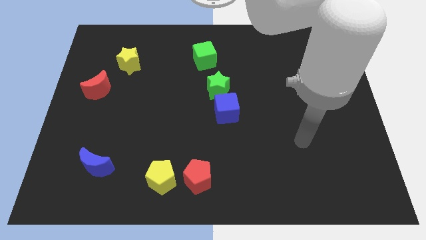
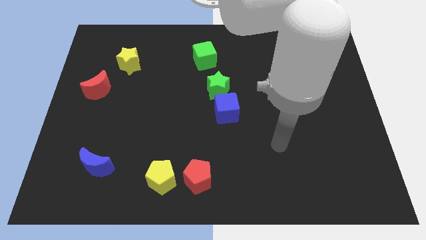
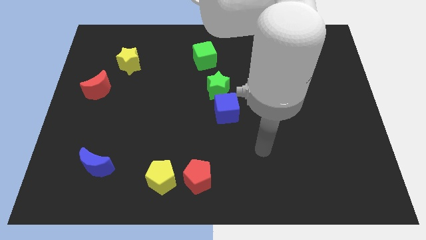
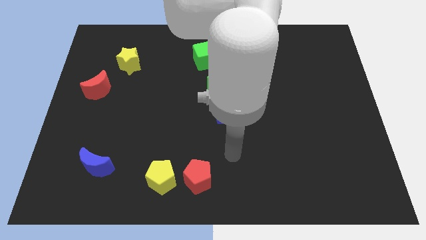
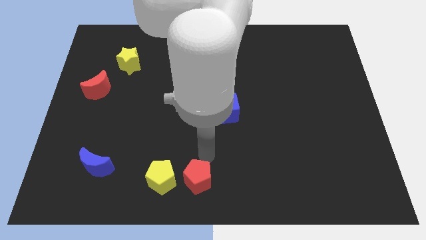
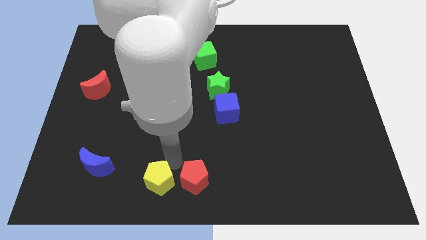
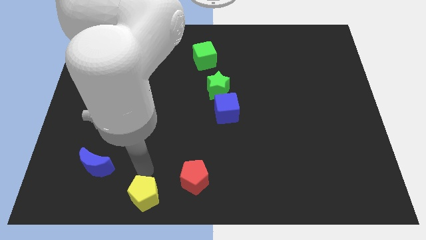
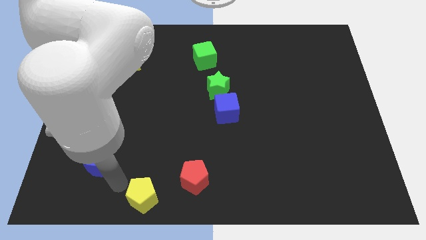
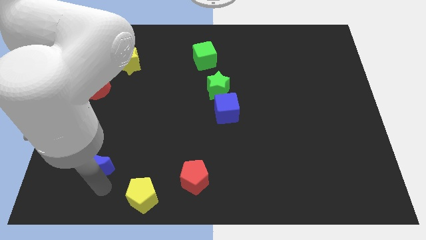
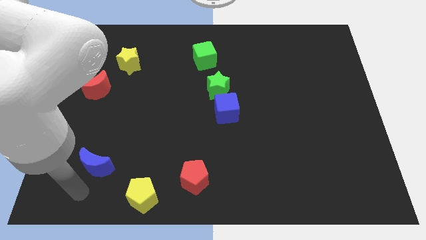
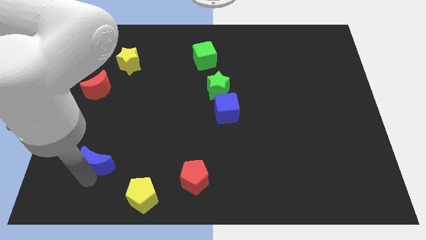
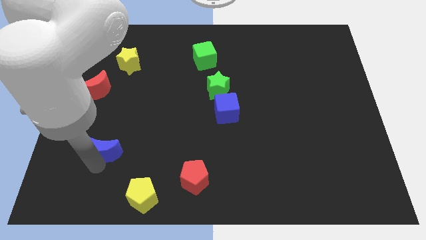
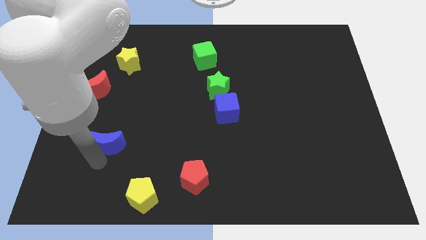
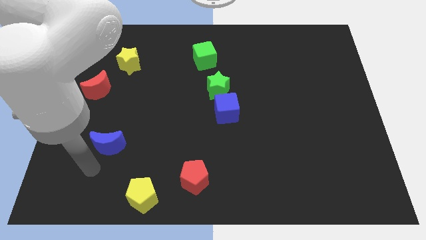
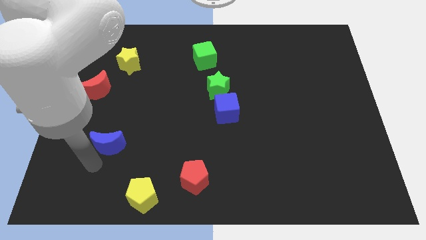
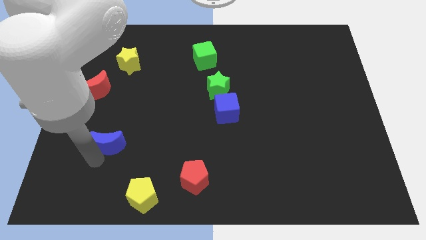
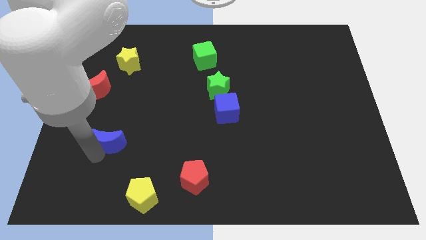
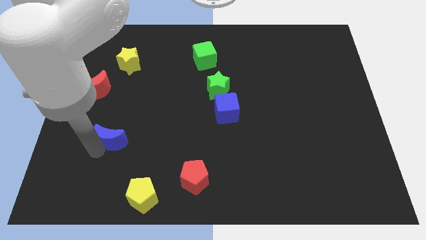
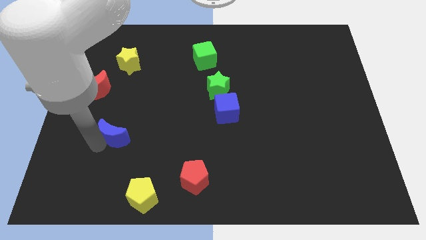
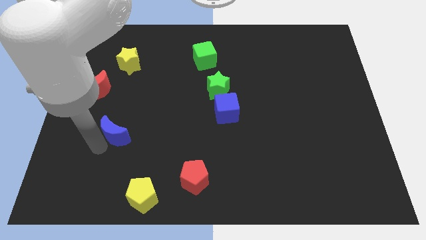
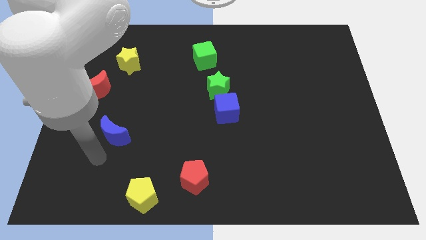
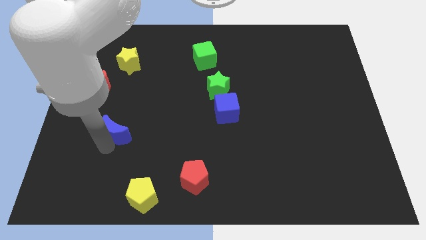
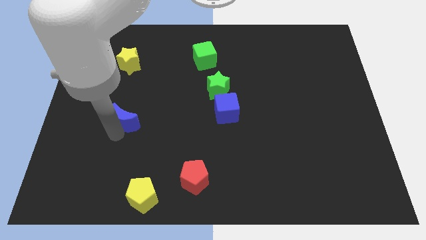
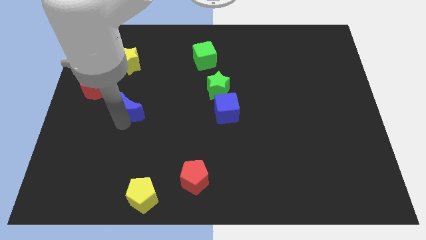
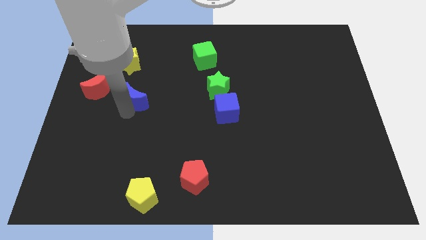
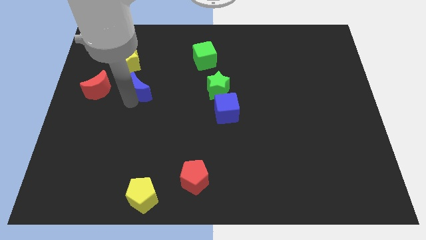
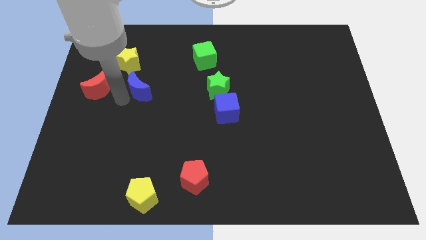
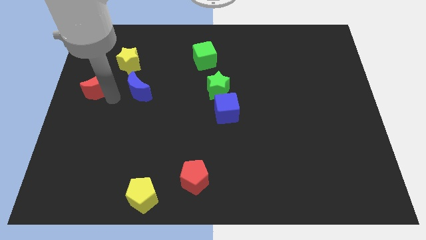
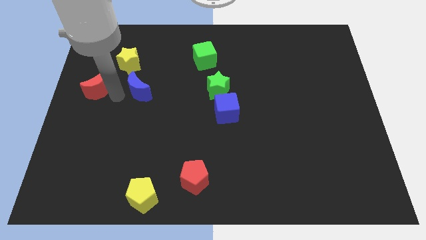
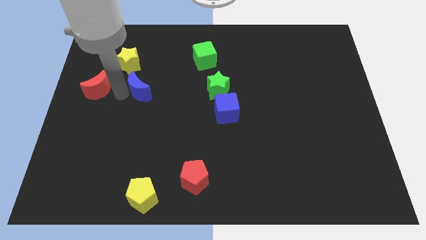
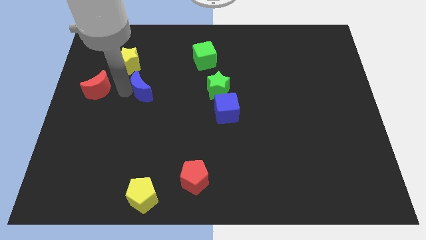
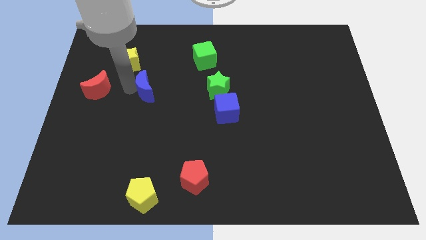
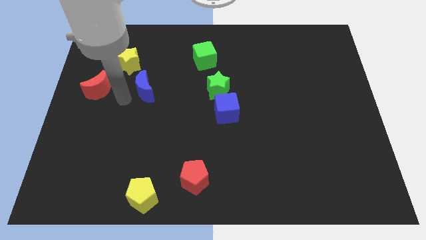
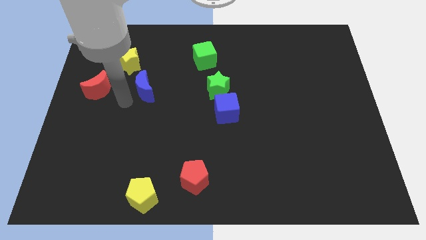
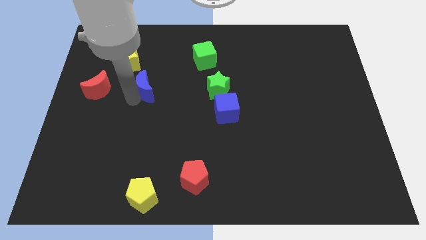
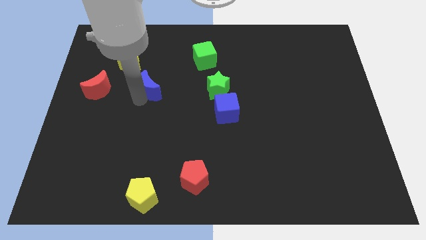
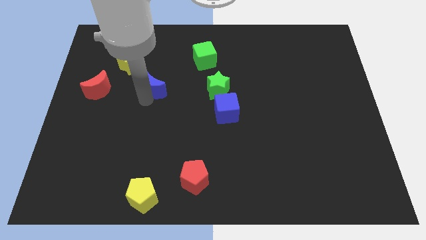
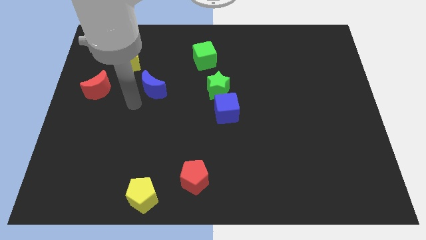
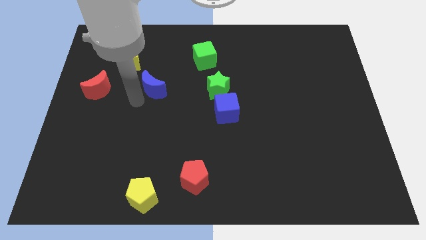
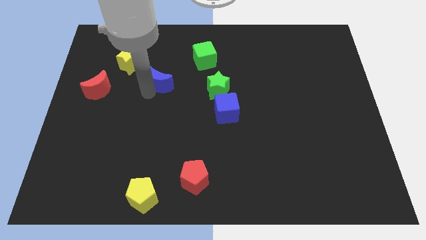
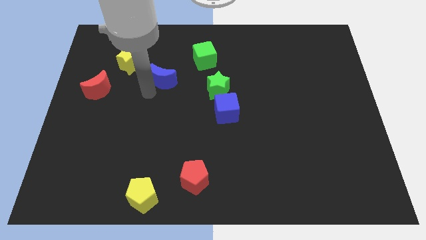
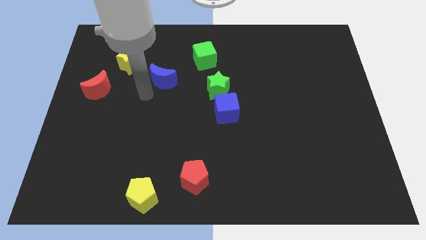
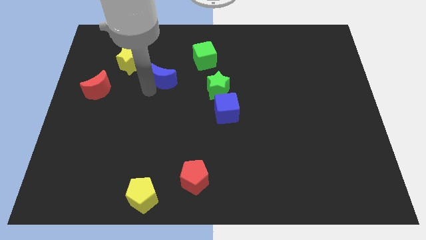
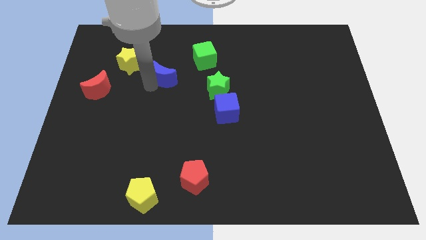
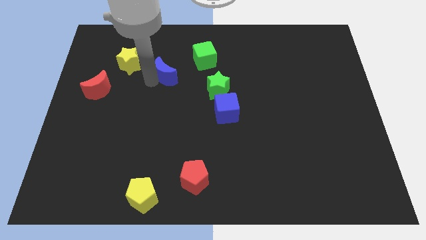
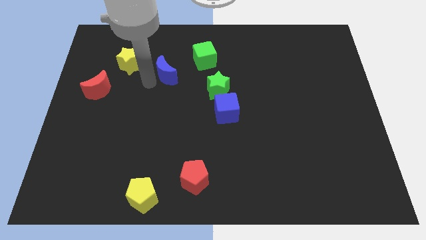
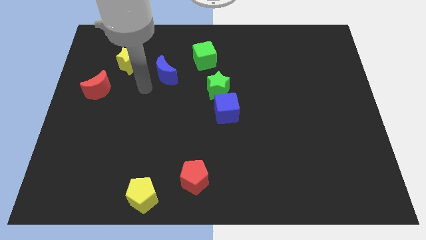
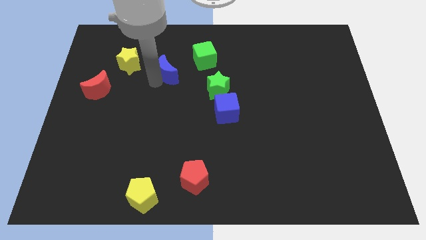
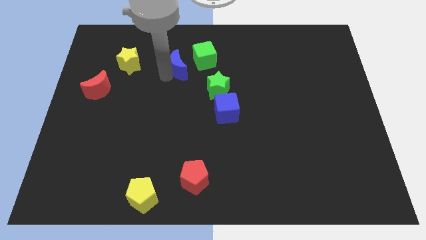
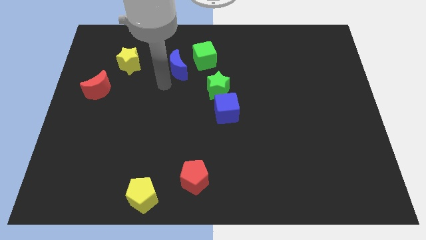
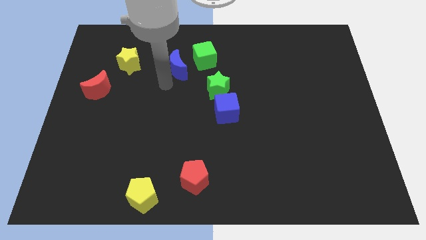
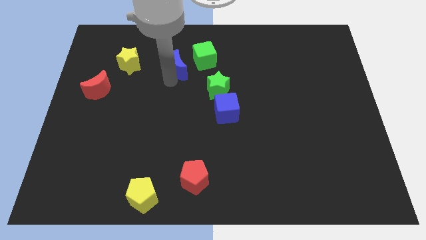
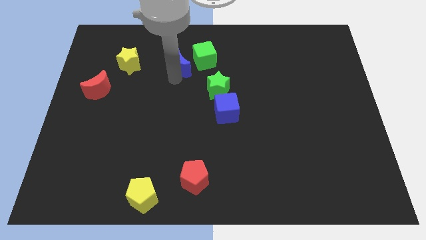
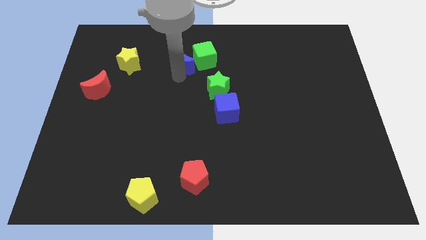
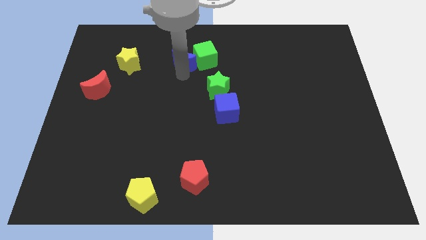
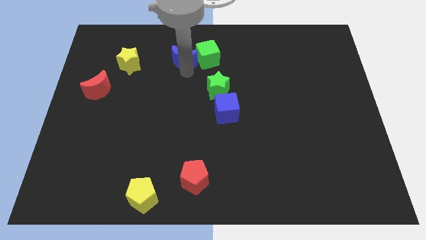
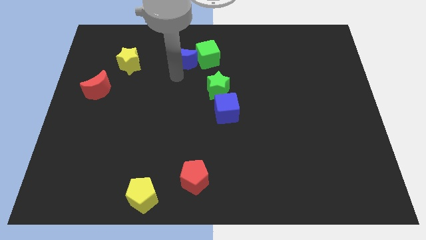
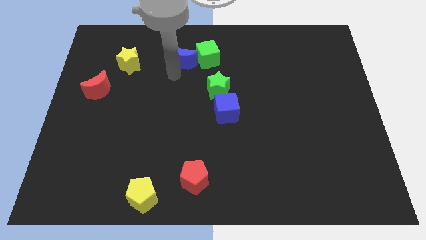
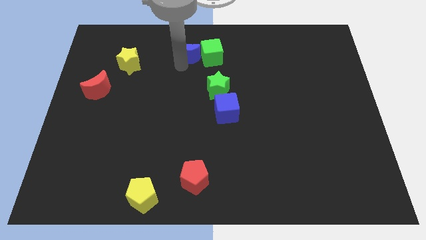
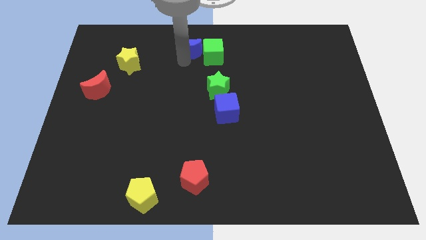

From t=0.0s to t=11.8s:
slide the blue moon to the top side

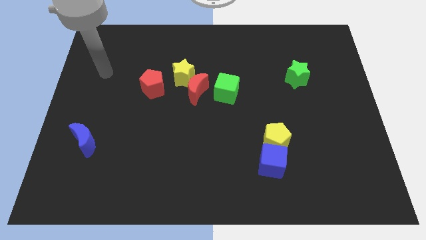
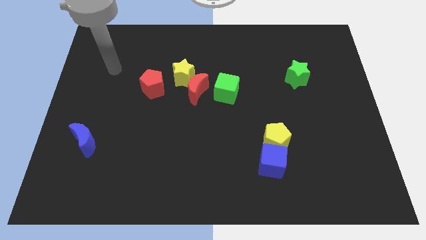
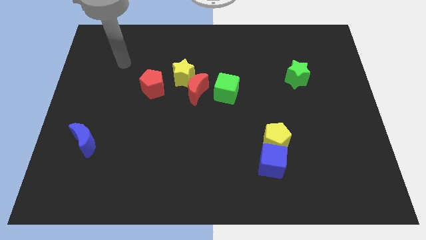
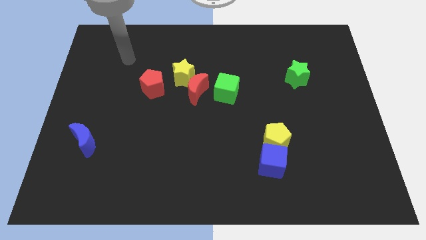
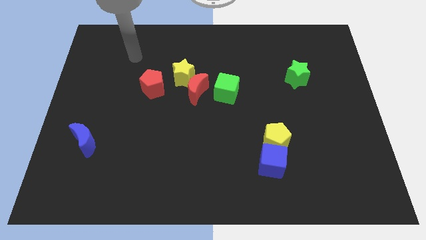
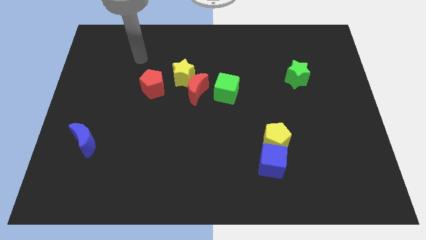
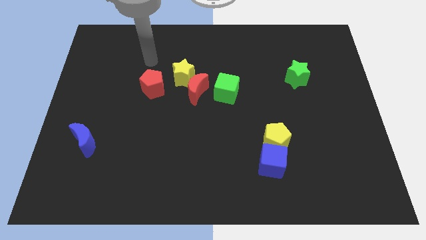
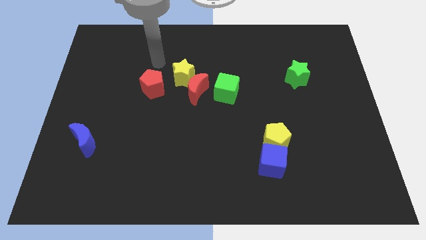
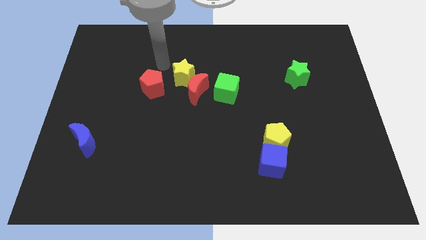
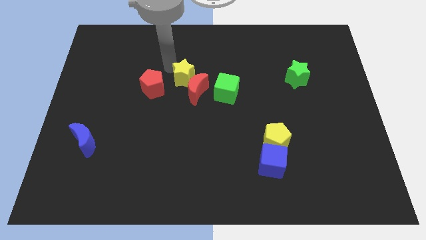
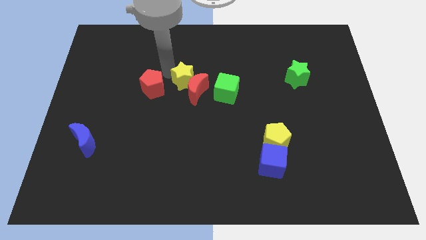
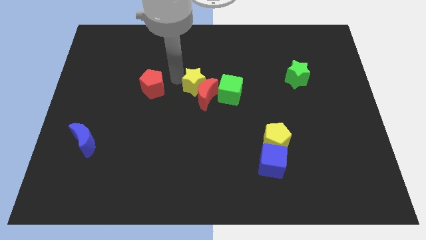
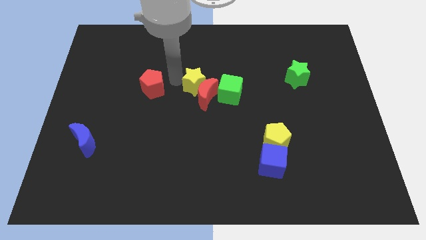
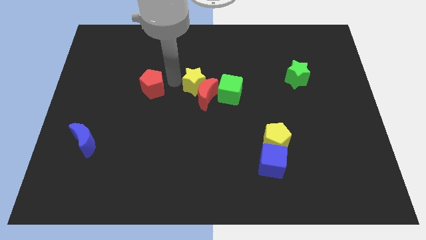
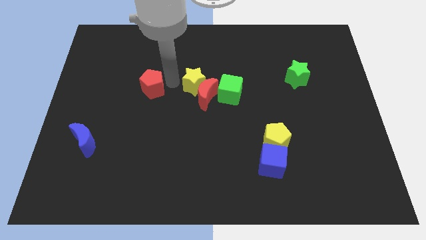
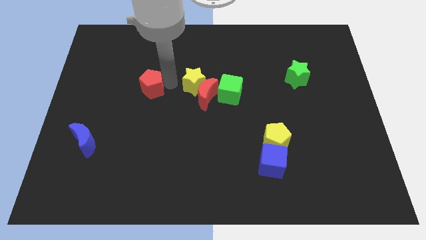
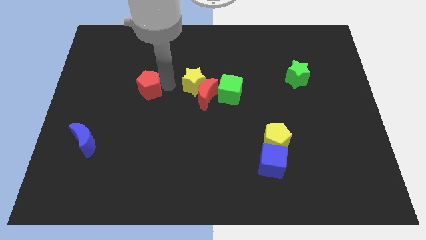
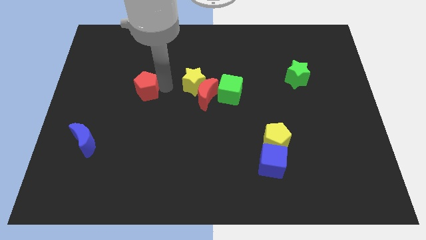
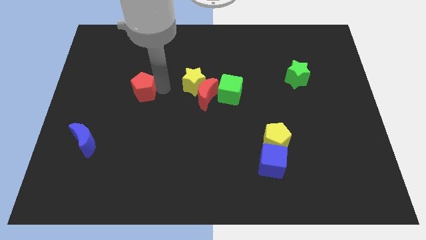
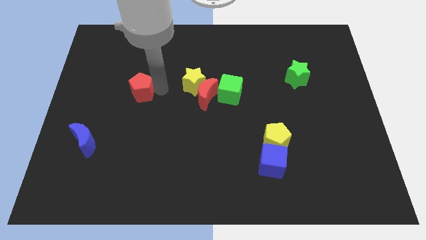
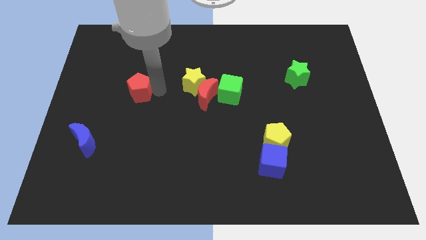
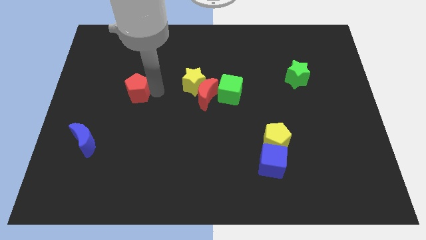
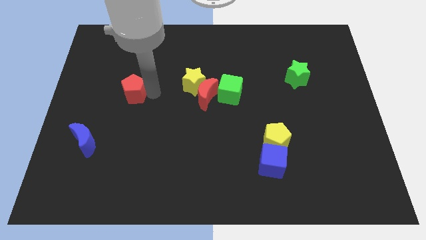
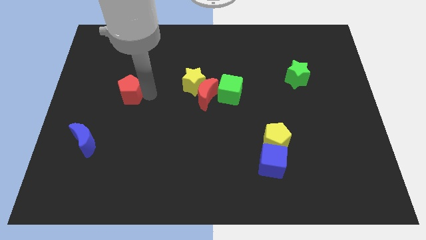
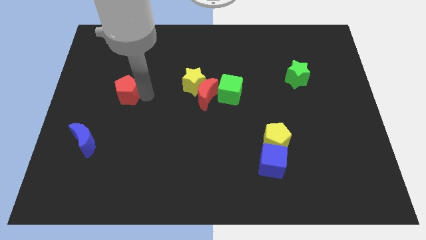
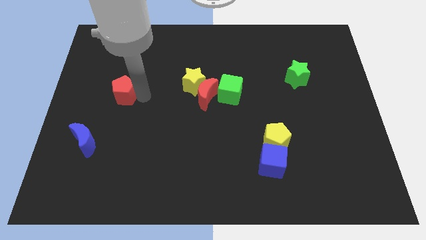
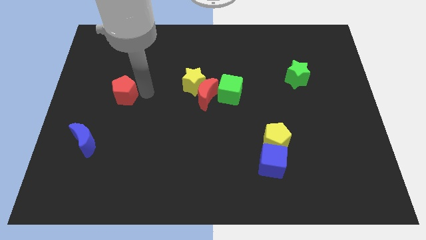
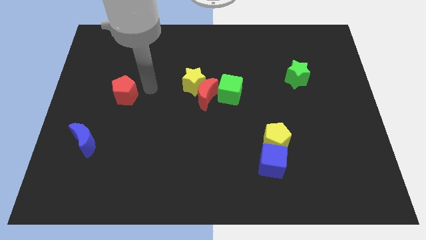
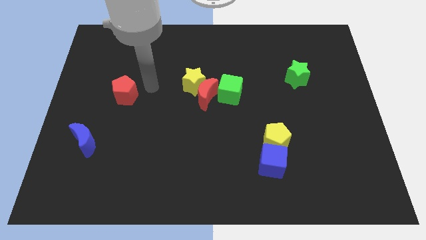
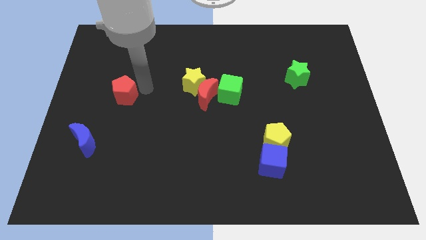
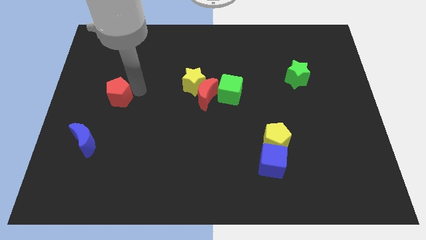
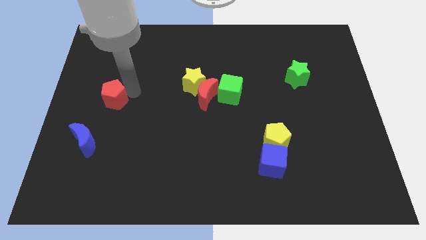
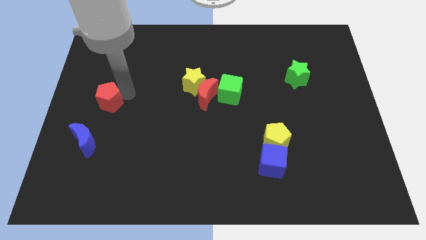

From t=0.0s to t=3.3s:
push the red pentagon to the left side
